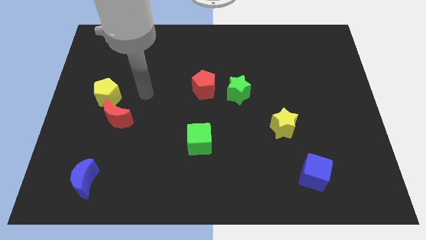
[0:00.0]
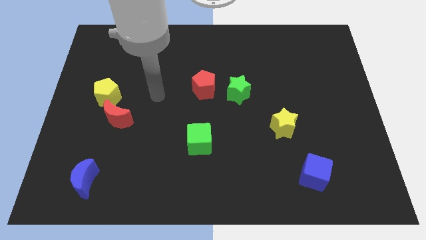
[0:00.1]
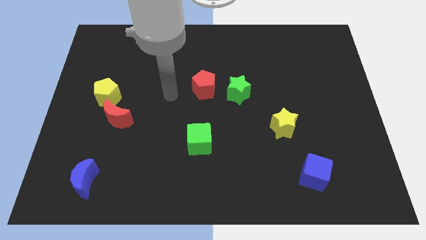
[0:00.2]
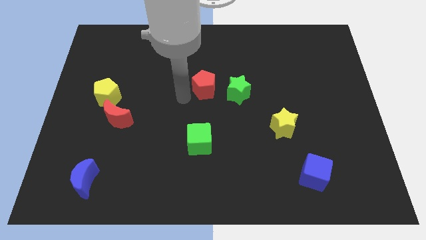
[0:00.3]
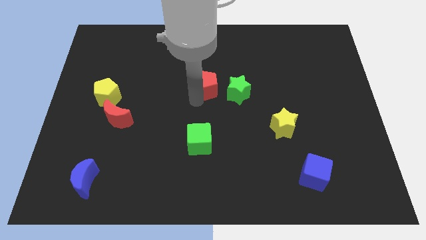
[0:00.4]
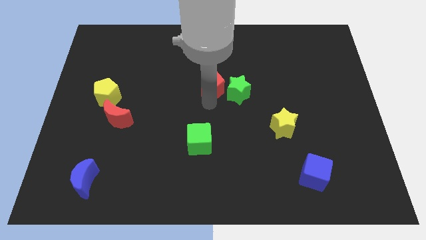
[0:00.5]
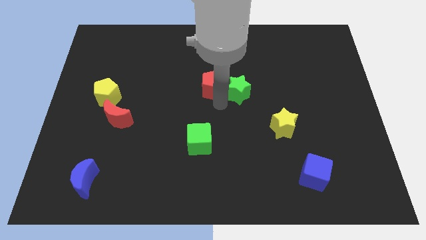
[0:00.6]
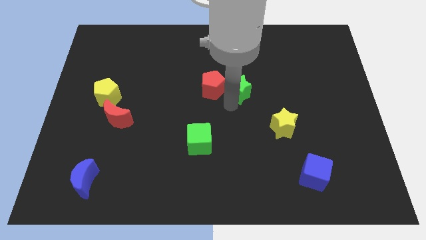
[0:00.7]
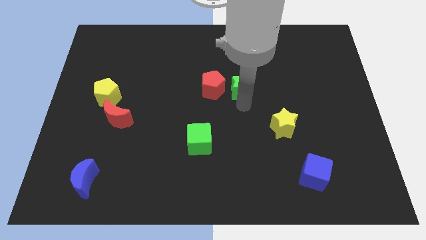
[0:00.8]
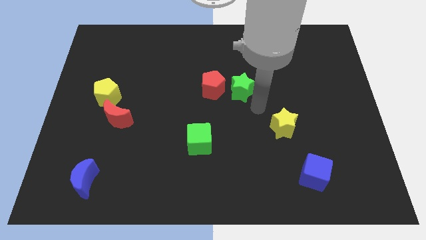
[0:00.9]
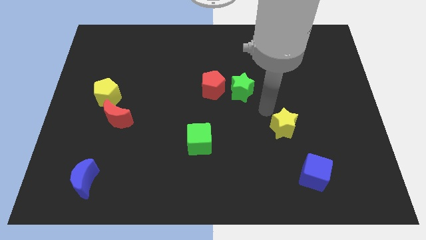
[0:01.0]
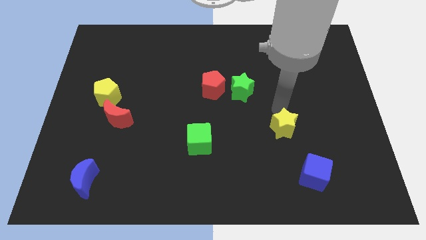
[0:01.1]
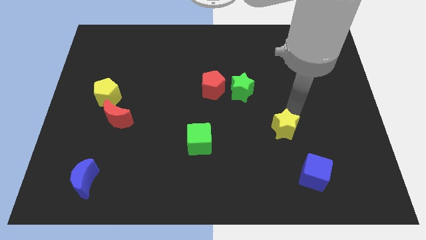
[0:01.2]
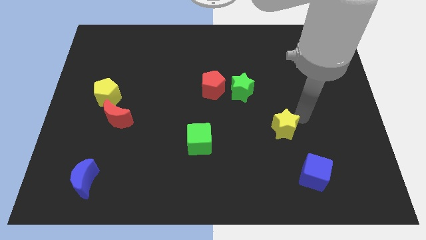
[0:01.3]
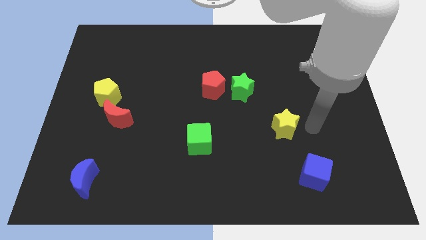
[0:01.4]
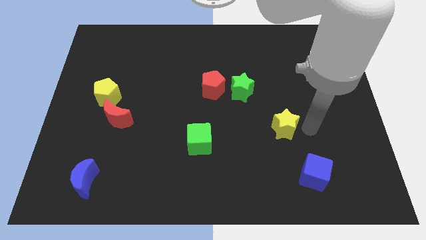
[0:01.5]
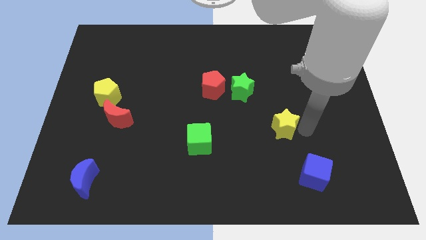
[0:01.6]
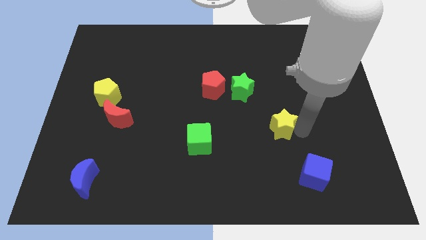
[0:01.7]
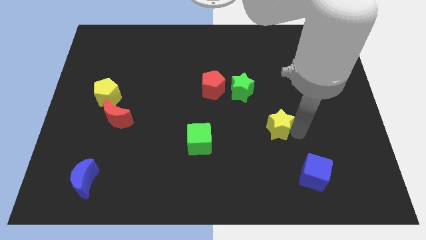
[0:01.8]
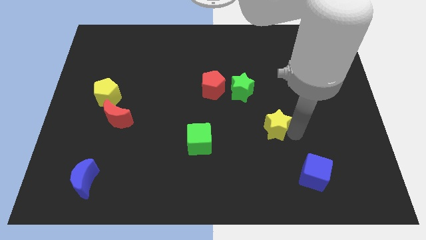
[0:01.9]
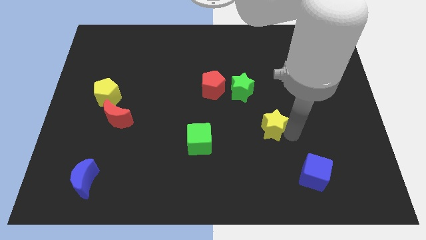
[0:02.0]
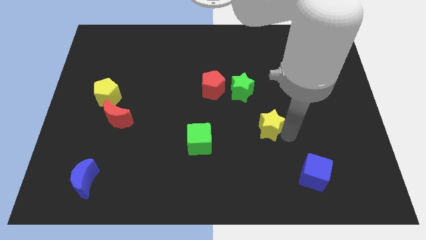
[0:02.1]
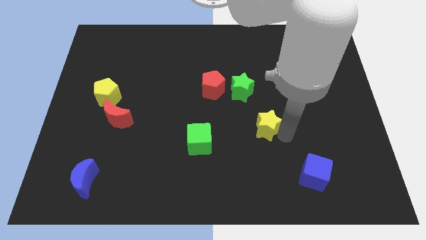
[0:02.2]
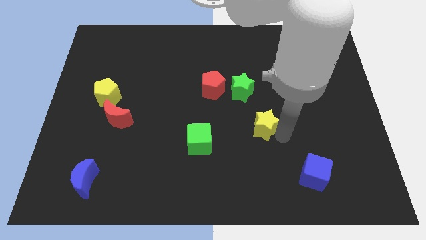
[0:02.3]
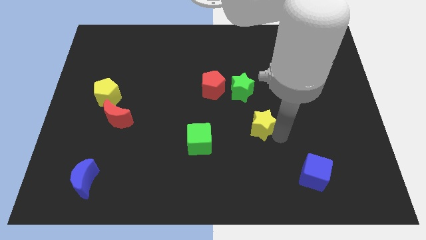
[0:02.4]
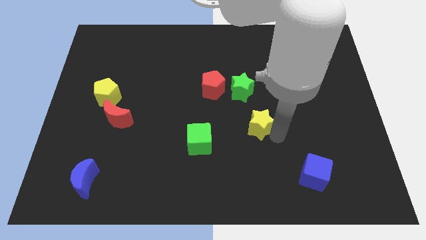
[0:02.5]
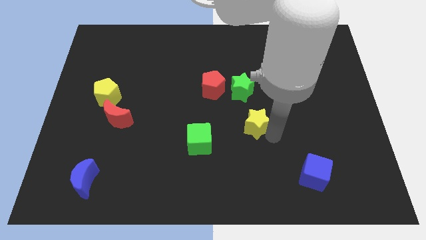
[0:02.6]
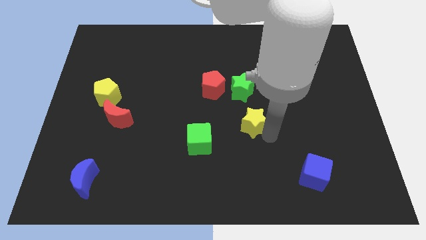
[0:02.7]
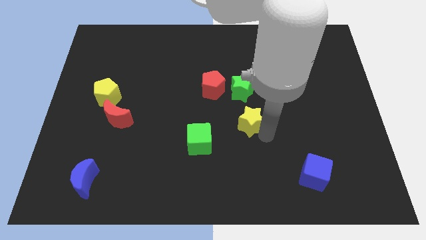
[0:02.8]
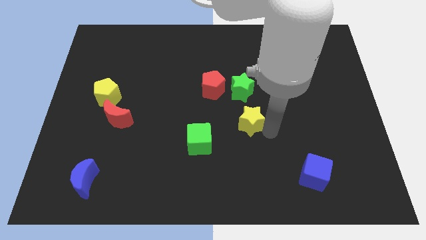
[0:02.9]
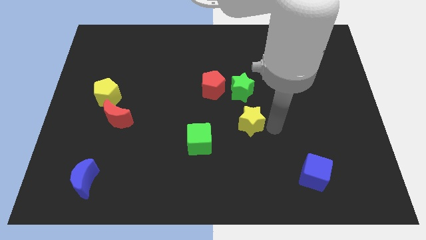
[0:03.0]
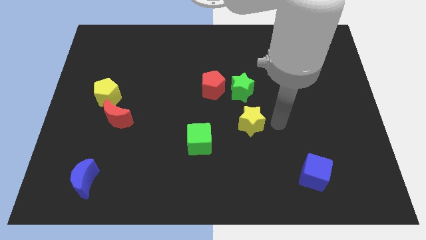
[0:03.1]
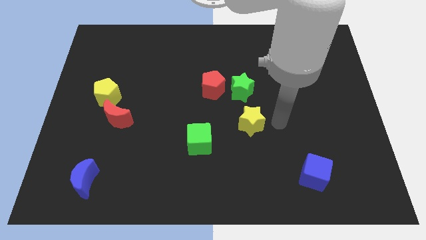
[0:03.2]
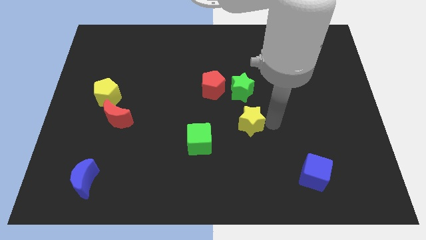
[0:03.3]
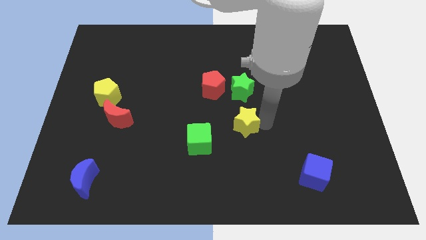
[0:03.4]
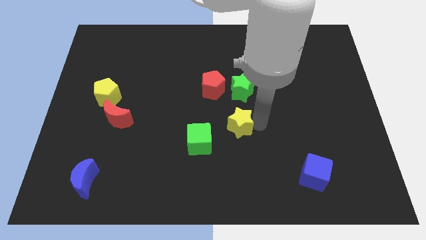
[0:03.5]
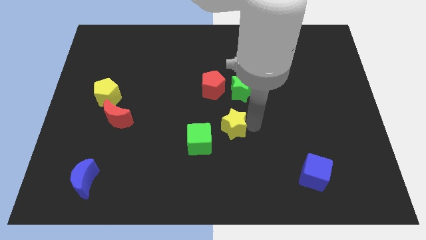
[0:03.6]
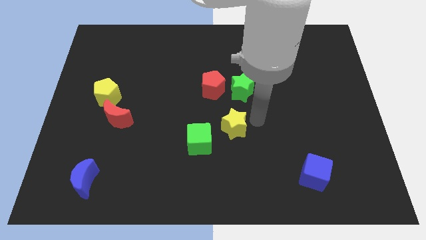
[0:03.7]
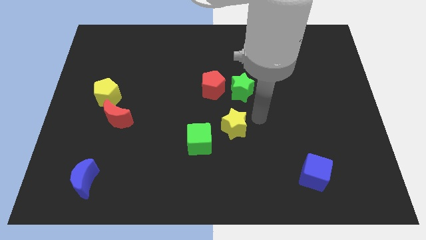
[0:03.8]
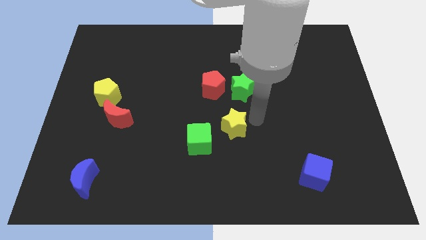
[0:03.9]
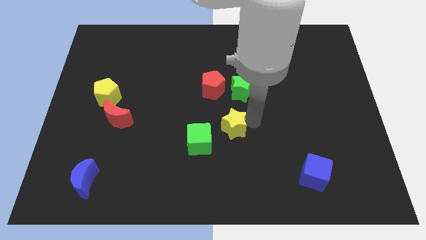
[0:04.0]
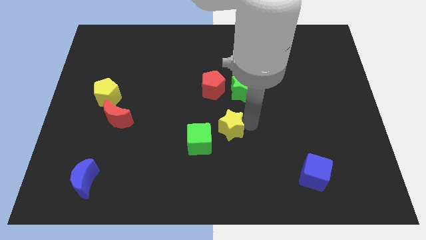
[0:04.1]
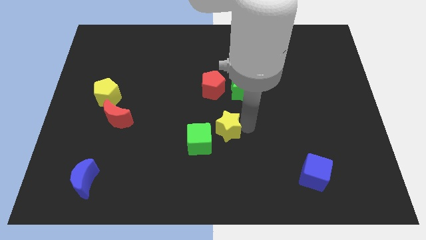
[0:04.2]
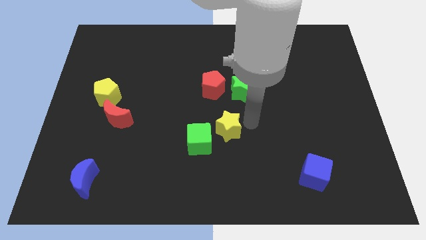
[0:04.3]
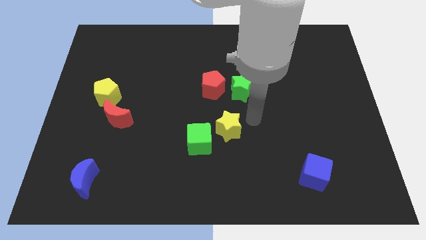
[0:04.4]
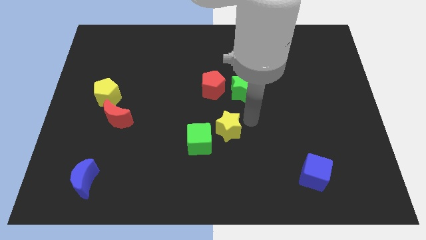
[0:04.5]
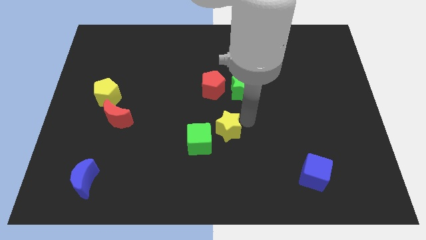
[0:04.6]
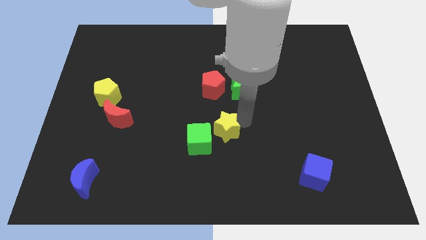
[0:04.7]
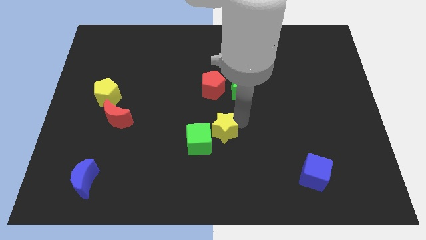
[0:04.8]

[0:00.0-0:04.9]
slide the yellow star next to the green cube

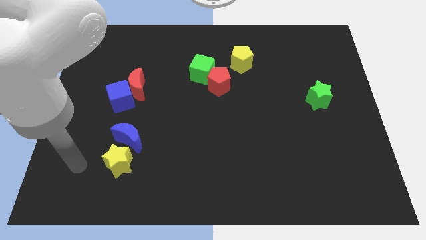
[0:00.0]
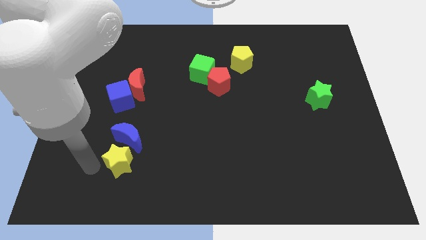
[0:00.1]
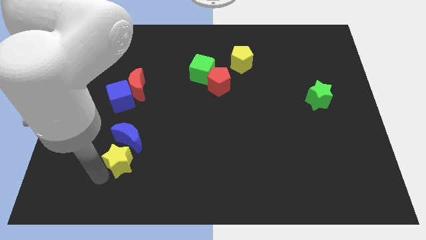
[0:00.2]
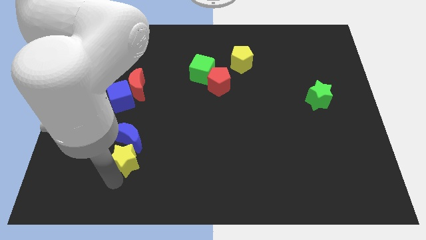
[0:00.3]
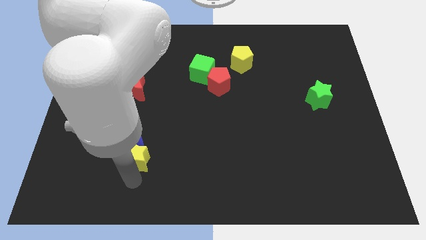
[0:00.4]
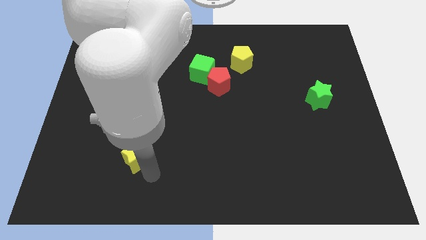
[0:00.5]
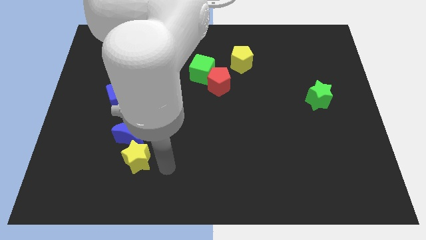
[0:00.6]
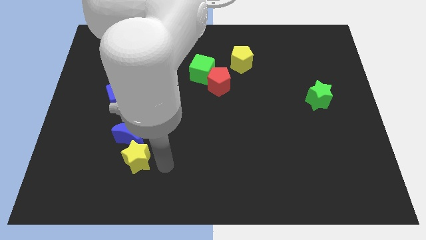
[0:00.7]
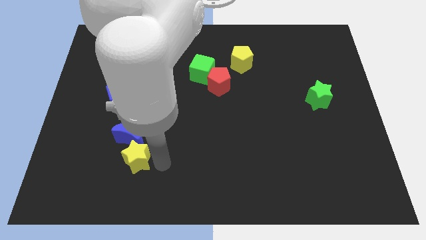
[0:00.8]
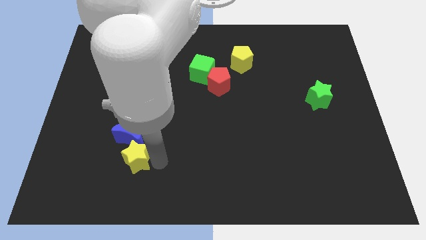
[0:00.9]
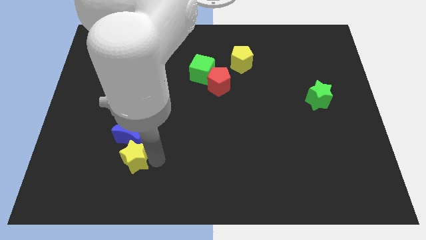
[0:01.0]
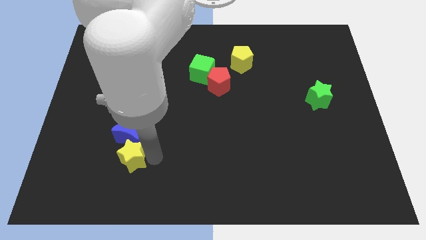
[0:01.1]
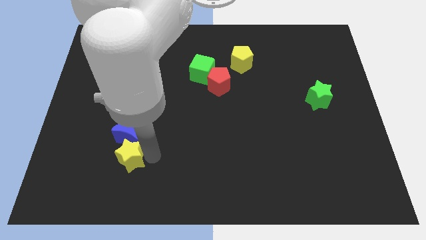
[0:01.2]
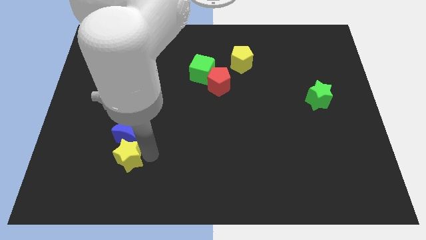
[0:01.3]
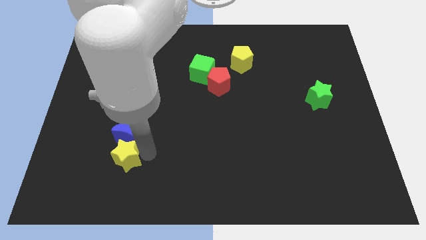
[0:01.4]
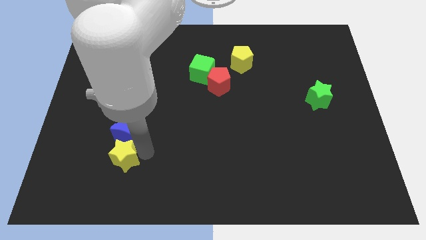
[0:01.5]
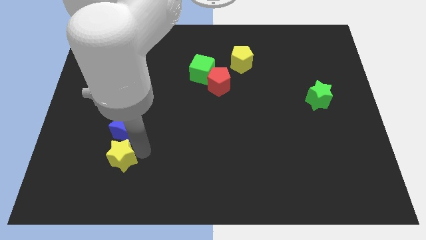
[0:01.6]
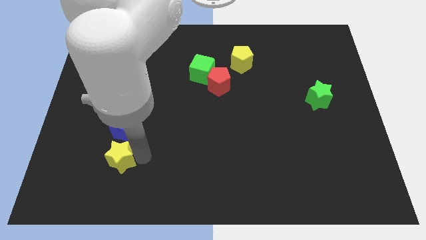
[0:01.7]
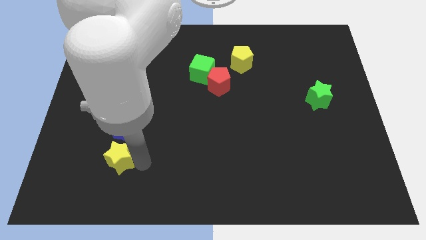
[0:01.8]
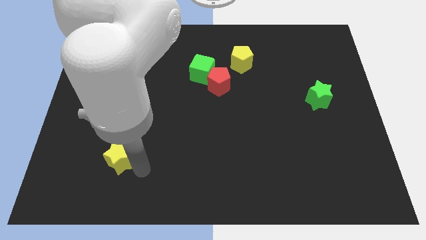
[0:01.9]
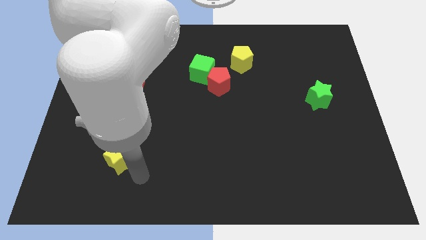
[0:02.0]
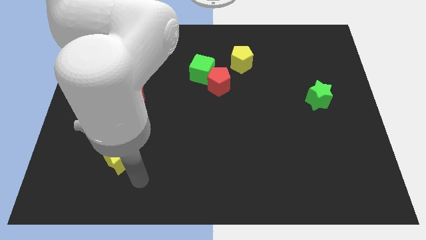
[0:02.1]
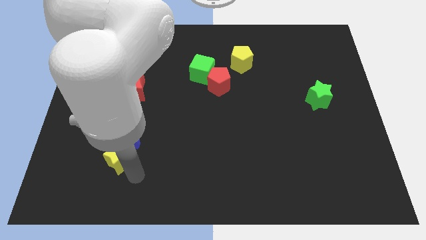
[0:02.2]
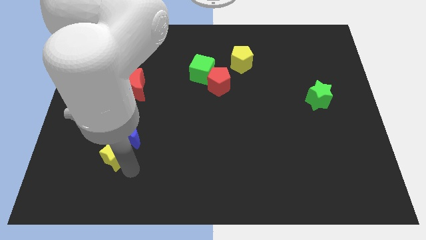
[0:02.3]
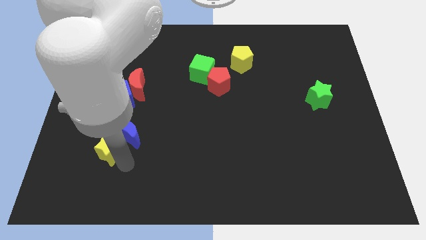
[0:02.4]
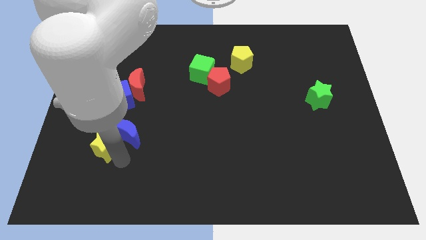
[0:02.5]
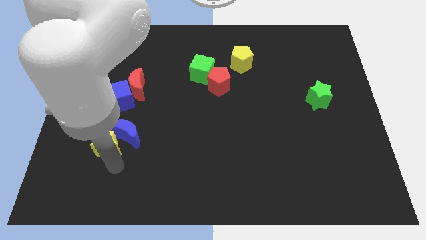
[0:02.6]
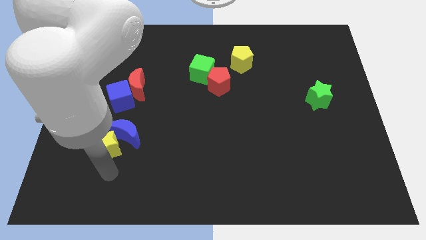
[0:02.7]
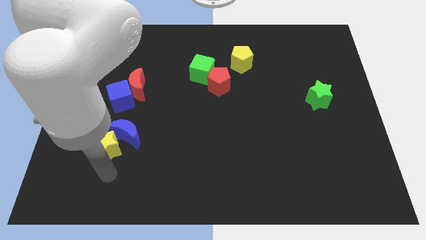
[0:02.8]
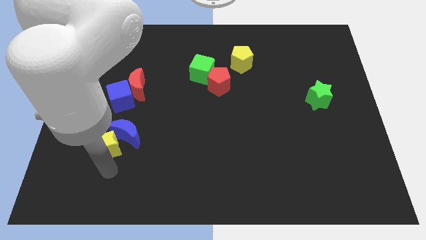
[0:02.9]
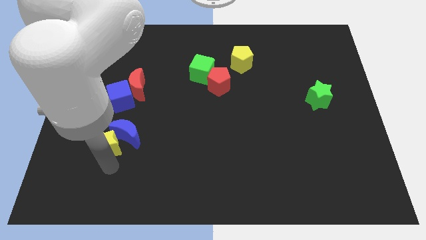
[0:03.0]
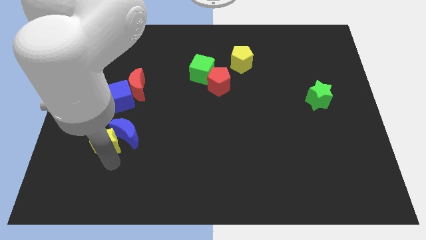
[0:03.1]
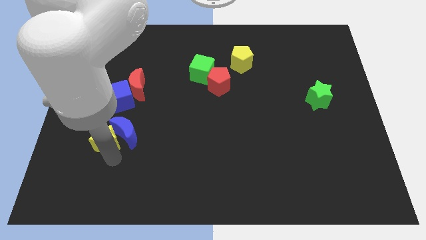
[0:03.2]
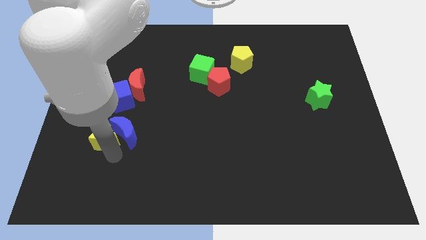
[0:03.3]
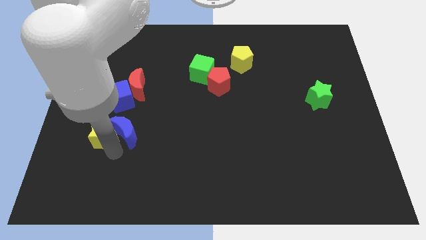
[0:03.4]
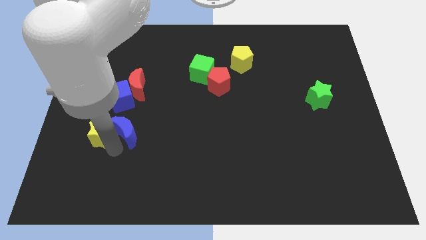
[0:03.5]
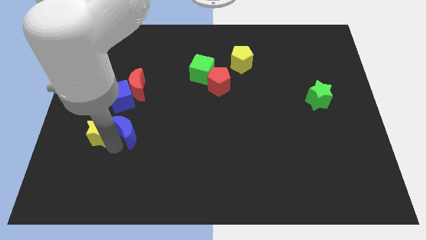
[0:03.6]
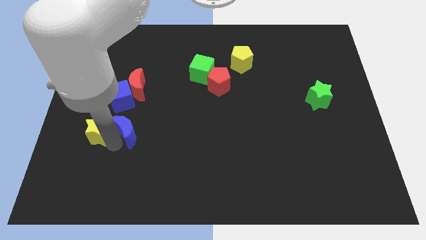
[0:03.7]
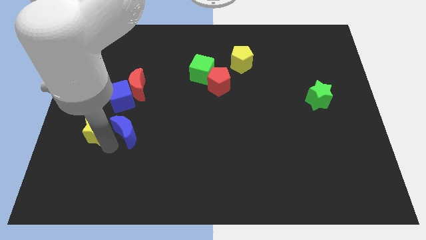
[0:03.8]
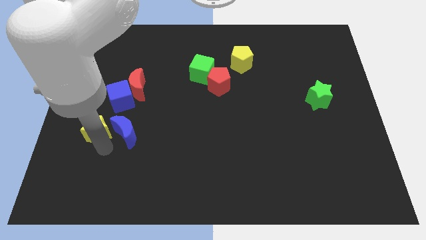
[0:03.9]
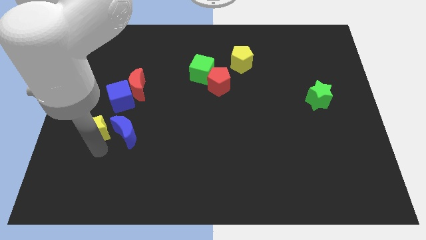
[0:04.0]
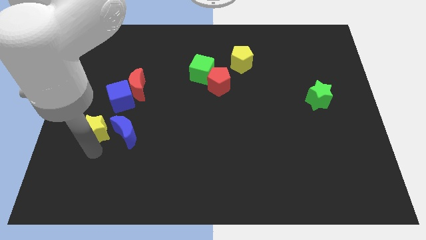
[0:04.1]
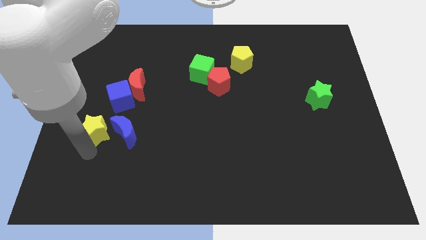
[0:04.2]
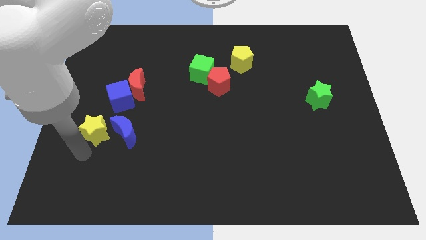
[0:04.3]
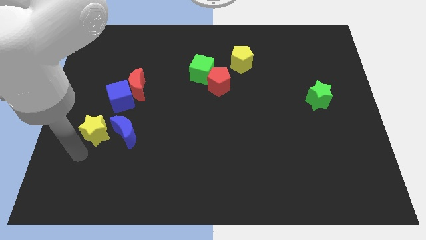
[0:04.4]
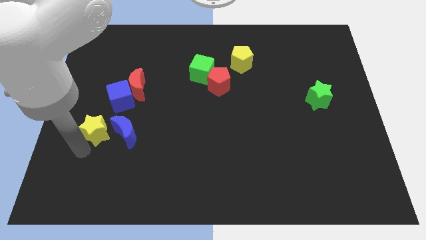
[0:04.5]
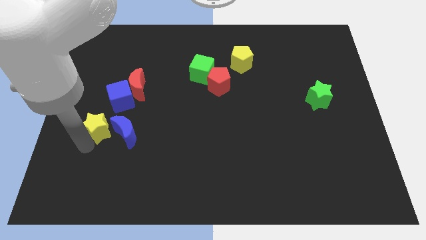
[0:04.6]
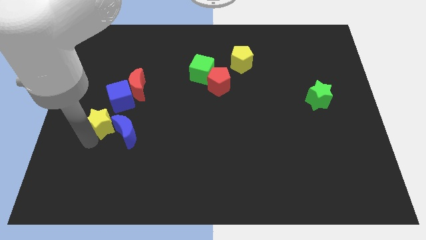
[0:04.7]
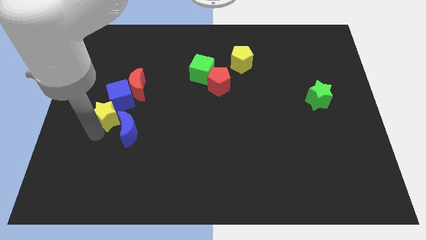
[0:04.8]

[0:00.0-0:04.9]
move the yellow star close to the blue cube
